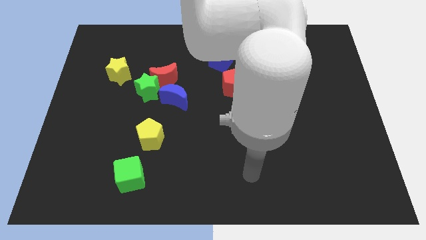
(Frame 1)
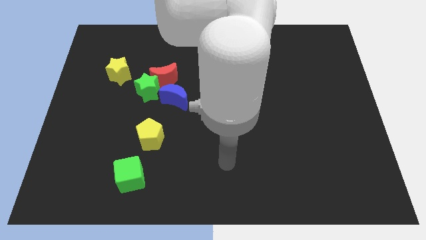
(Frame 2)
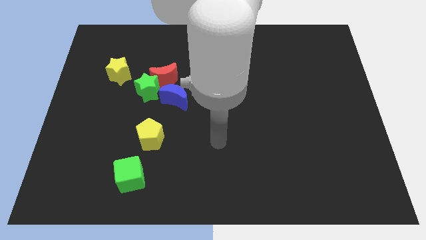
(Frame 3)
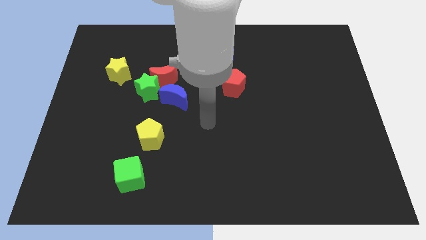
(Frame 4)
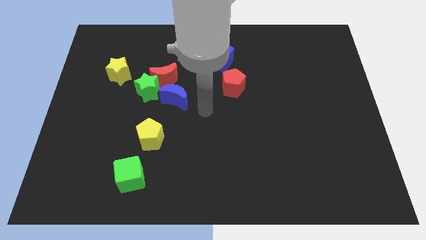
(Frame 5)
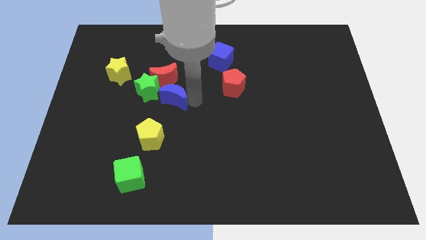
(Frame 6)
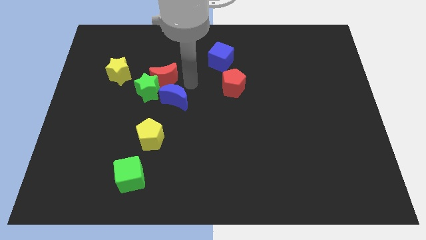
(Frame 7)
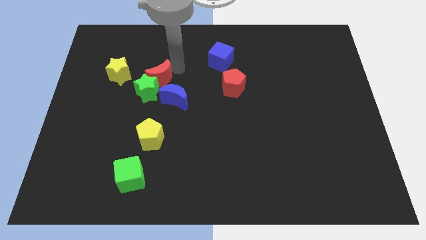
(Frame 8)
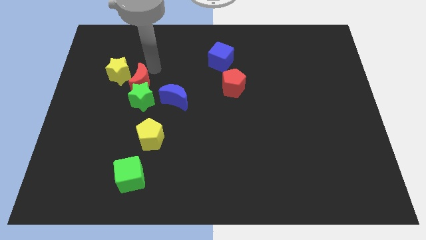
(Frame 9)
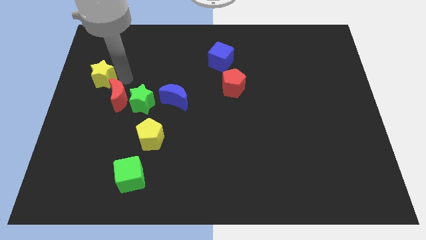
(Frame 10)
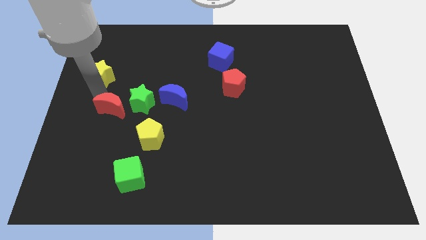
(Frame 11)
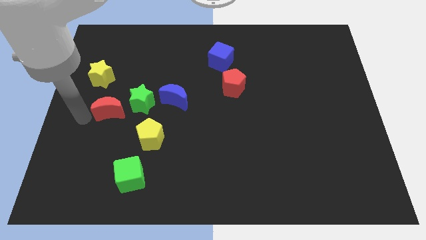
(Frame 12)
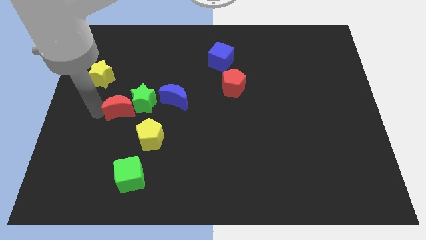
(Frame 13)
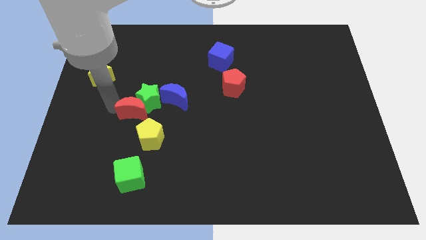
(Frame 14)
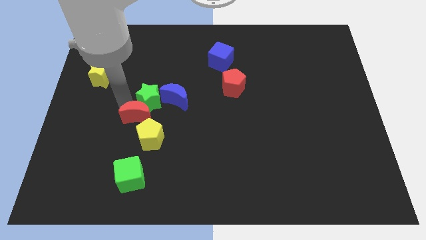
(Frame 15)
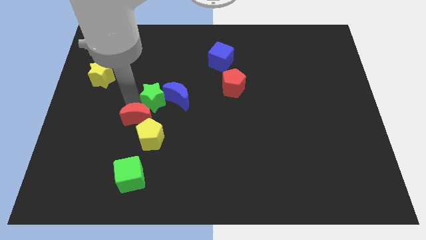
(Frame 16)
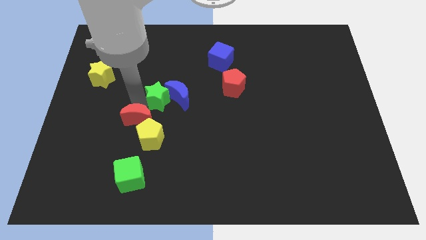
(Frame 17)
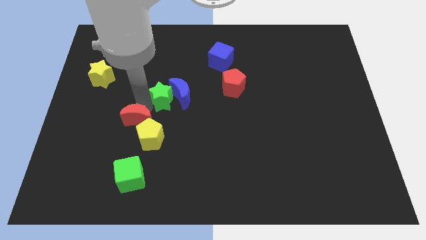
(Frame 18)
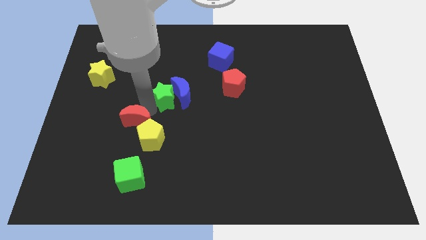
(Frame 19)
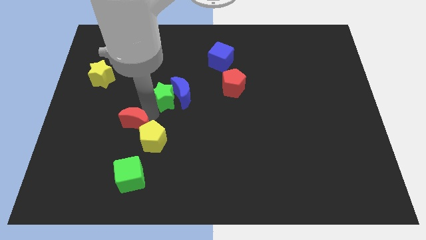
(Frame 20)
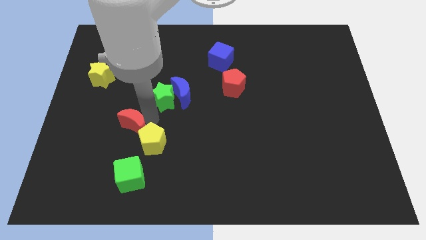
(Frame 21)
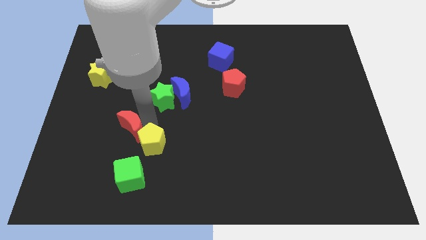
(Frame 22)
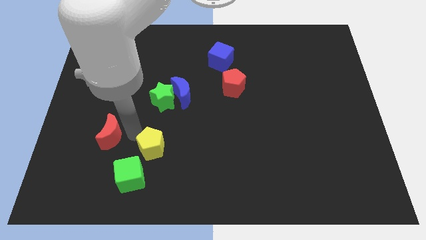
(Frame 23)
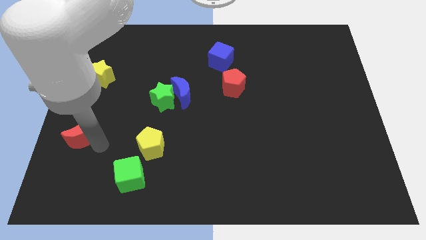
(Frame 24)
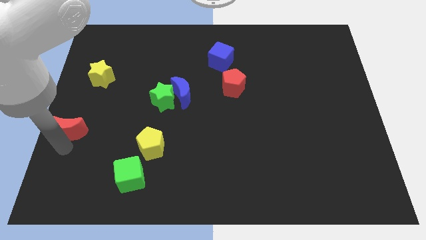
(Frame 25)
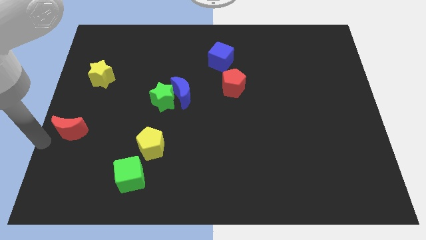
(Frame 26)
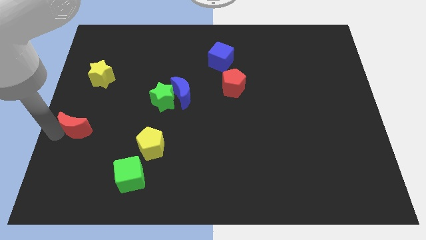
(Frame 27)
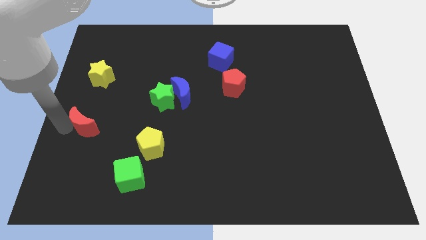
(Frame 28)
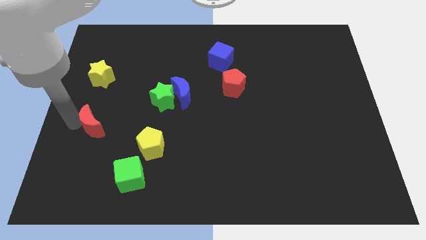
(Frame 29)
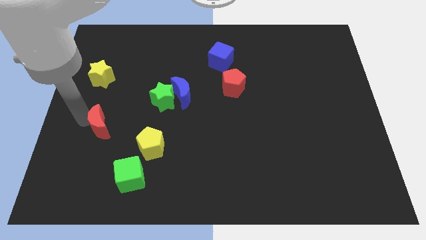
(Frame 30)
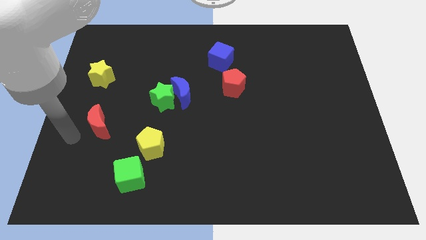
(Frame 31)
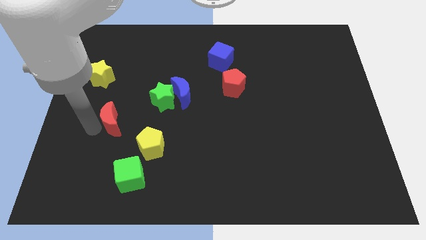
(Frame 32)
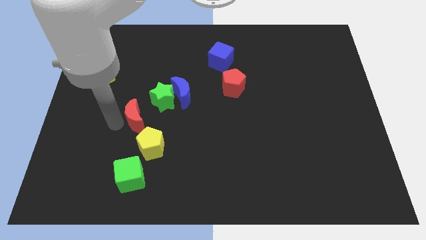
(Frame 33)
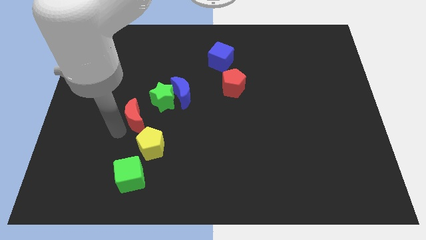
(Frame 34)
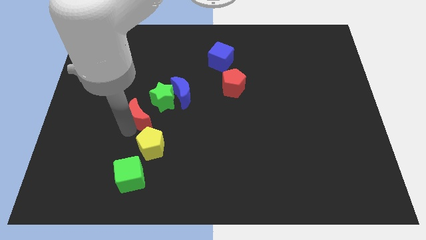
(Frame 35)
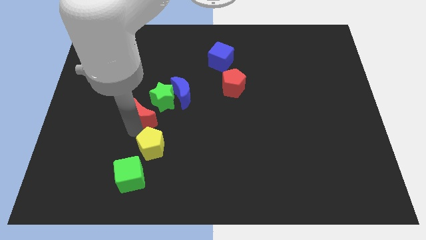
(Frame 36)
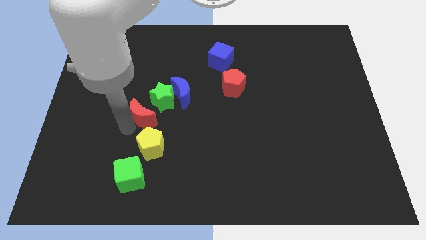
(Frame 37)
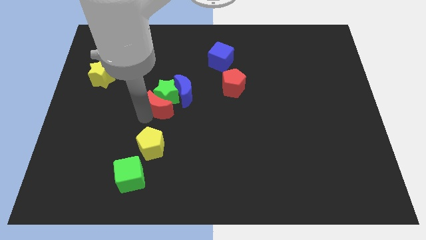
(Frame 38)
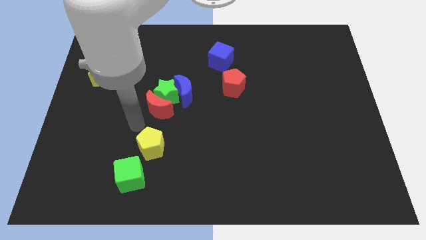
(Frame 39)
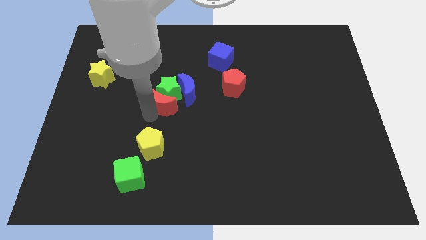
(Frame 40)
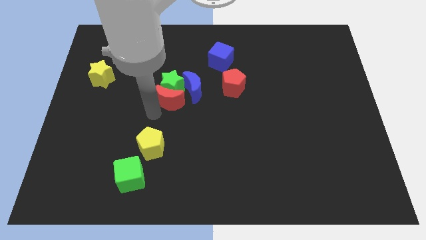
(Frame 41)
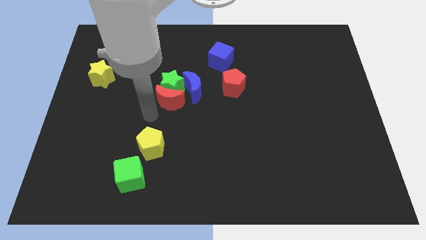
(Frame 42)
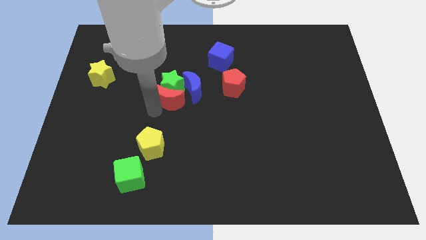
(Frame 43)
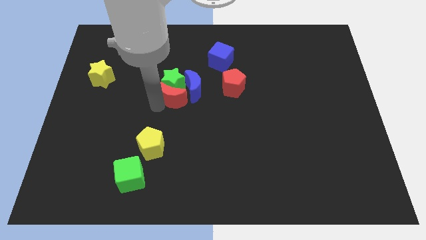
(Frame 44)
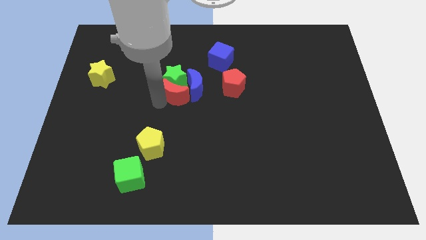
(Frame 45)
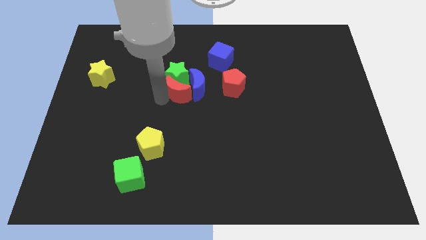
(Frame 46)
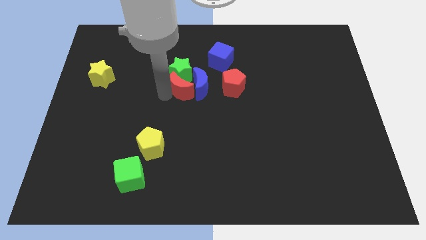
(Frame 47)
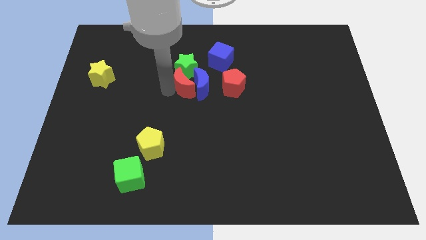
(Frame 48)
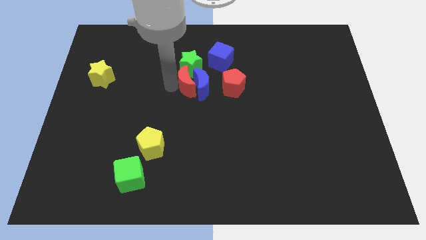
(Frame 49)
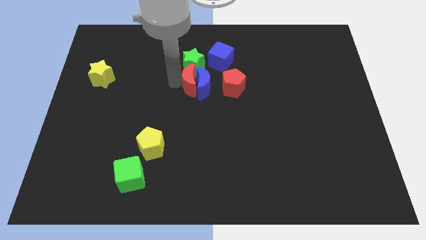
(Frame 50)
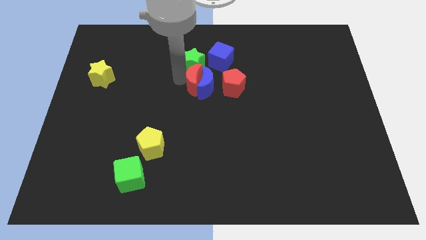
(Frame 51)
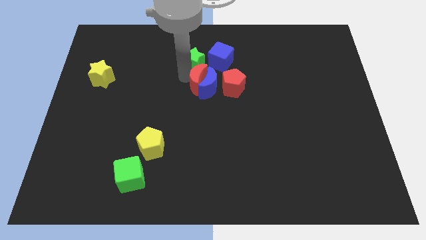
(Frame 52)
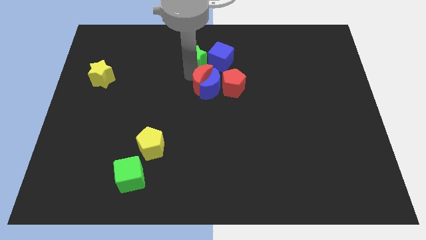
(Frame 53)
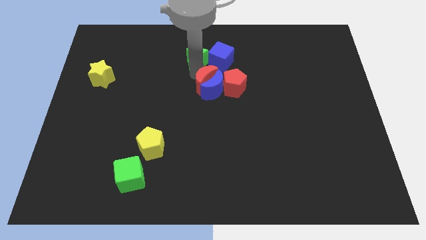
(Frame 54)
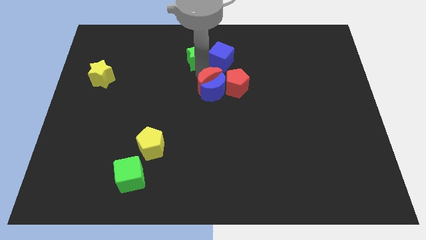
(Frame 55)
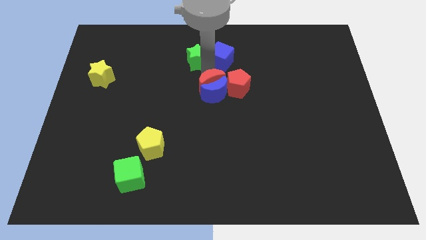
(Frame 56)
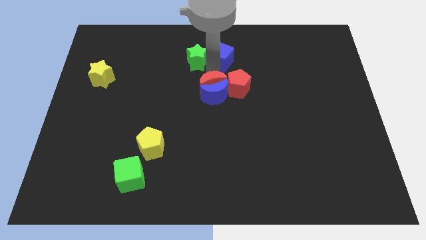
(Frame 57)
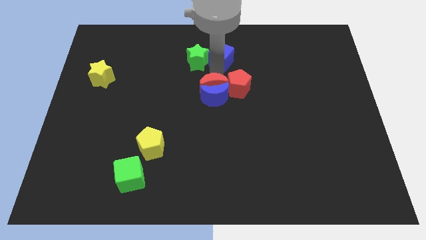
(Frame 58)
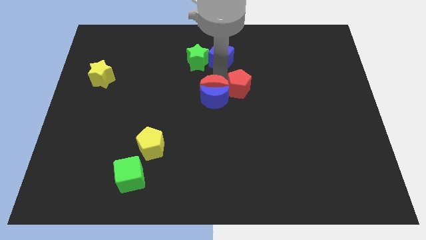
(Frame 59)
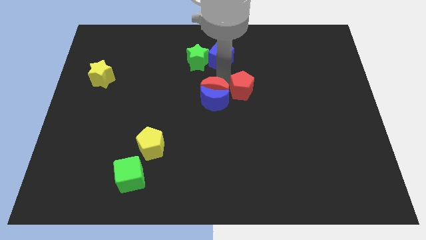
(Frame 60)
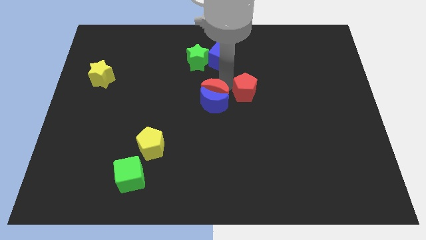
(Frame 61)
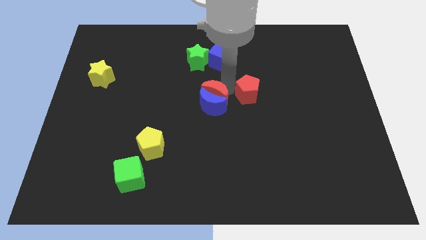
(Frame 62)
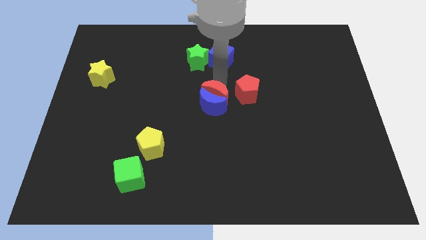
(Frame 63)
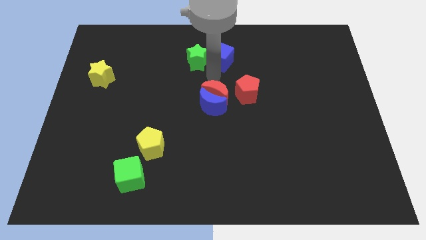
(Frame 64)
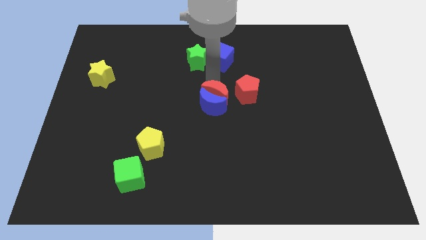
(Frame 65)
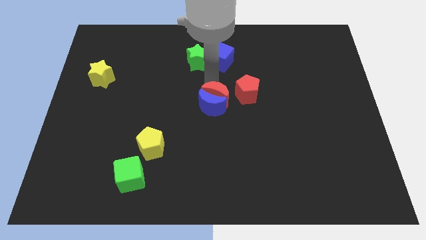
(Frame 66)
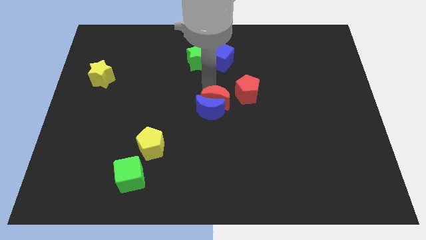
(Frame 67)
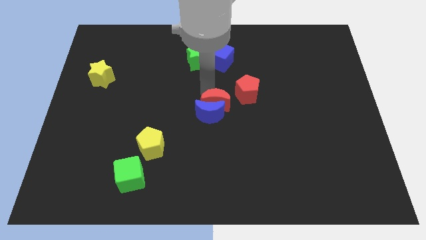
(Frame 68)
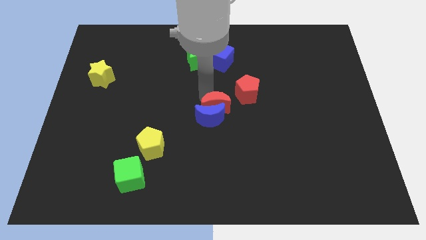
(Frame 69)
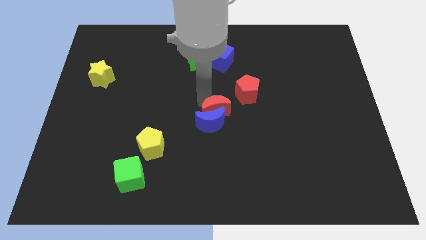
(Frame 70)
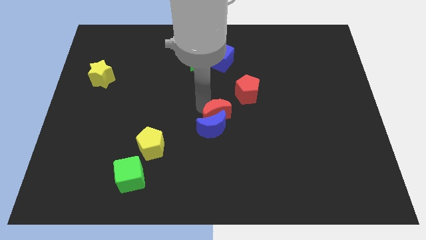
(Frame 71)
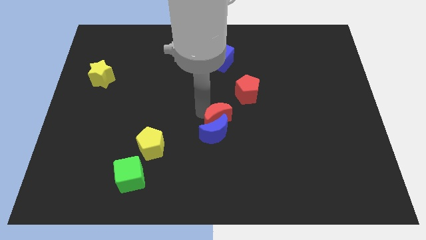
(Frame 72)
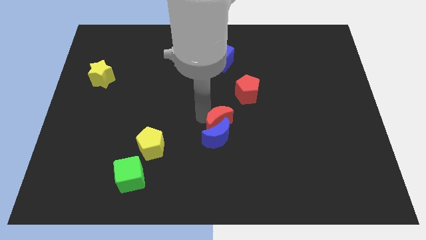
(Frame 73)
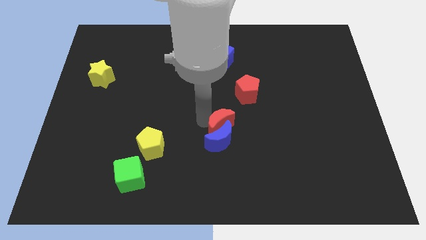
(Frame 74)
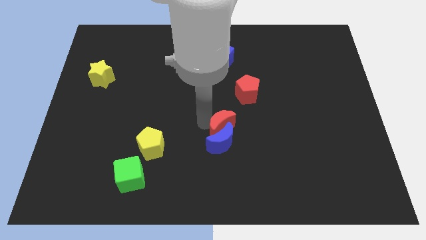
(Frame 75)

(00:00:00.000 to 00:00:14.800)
slide the red moon downwards and then to the right
